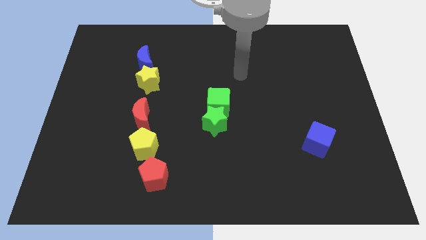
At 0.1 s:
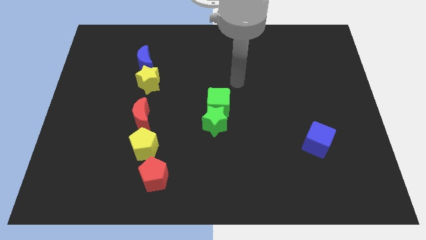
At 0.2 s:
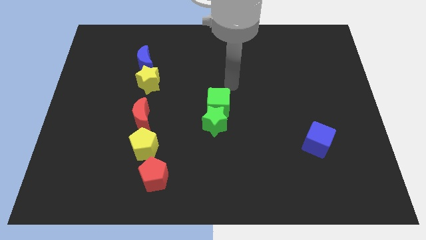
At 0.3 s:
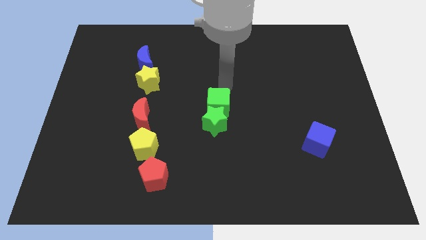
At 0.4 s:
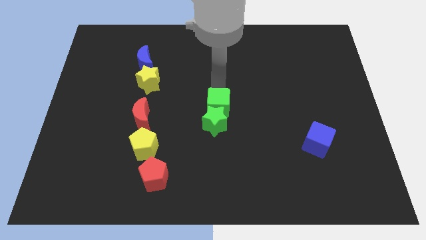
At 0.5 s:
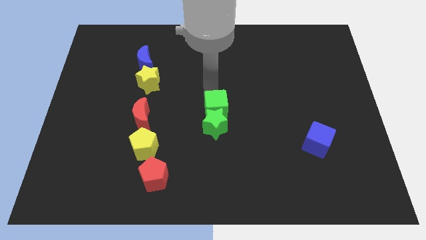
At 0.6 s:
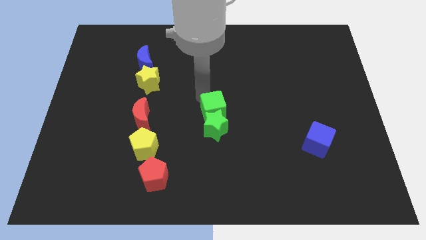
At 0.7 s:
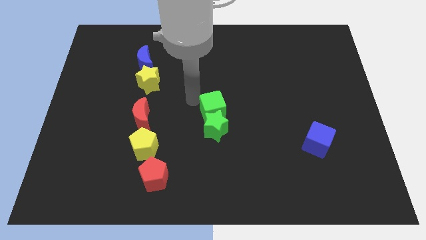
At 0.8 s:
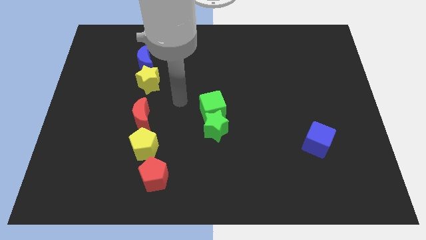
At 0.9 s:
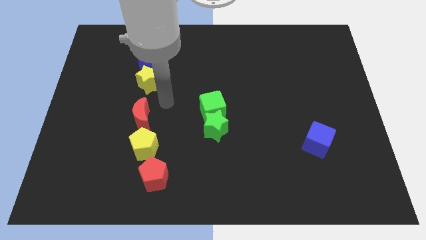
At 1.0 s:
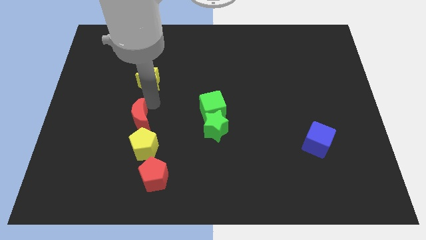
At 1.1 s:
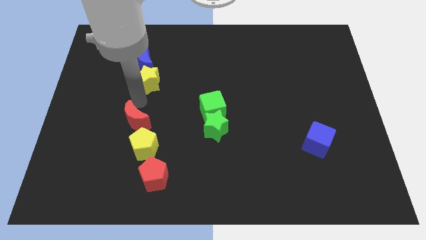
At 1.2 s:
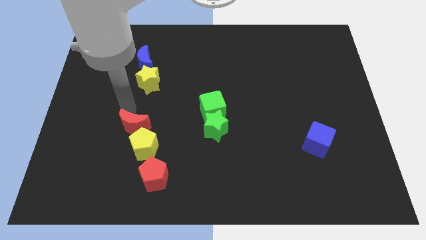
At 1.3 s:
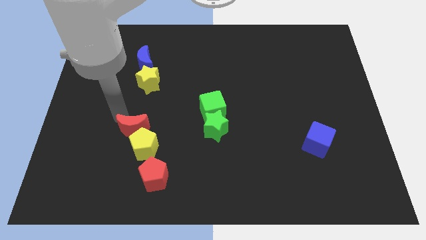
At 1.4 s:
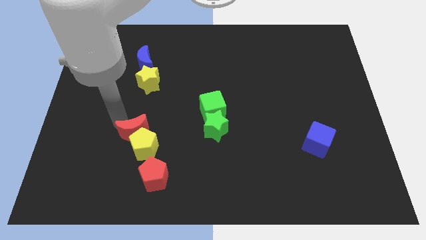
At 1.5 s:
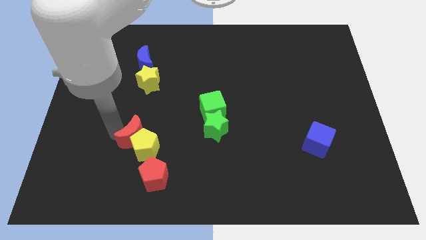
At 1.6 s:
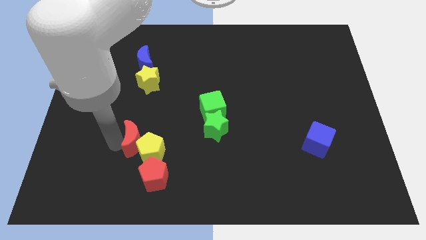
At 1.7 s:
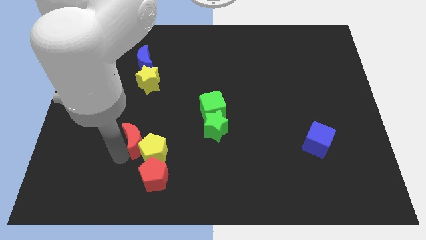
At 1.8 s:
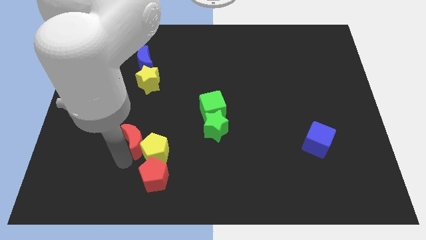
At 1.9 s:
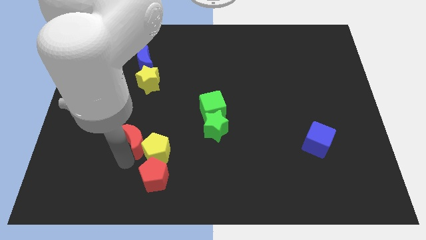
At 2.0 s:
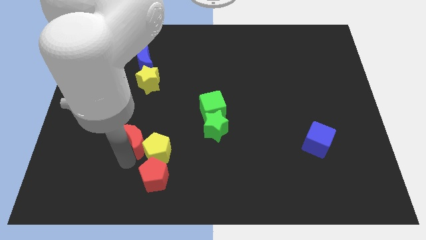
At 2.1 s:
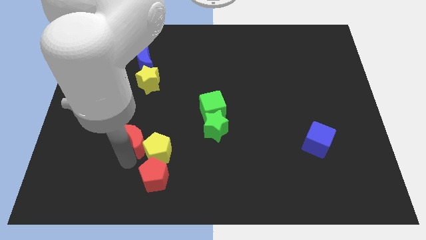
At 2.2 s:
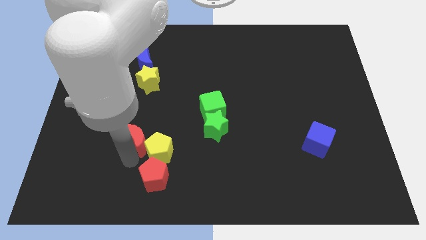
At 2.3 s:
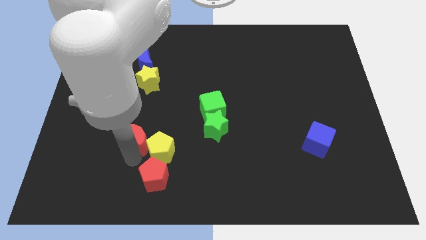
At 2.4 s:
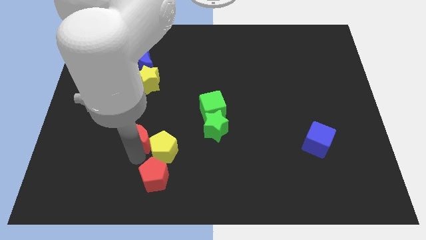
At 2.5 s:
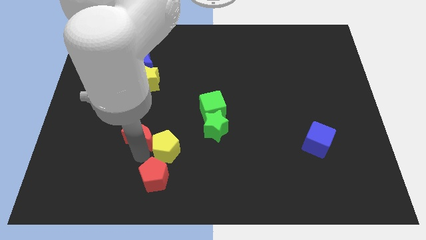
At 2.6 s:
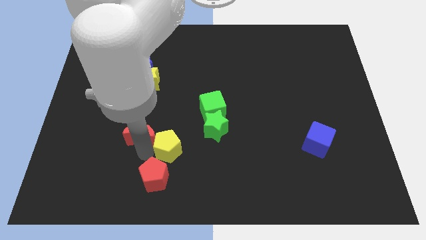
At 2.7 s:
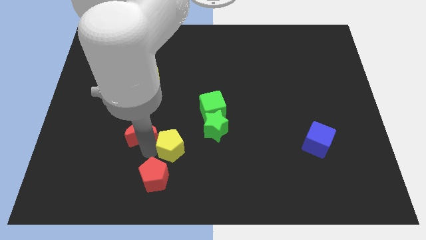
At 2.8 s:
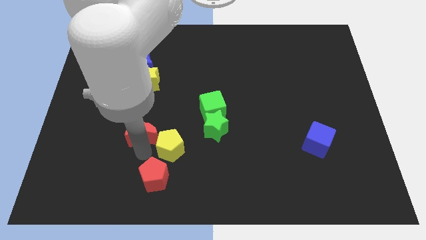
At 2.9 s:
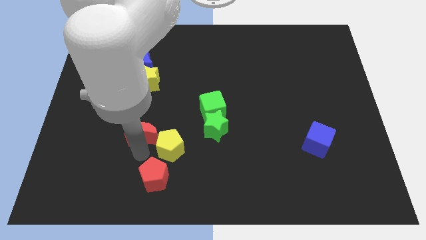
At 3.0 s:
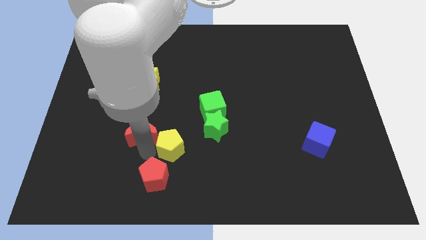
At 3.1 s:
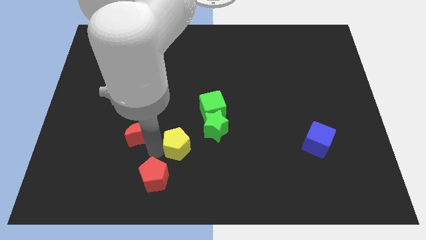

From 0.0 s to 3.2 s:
slightly move the yellow pentagon right

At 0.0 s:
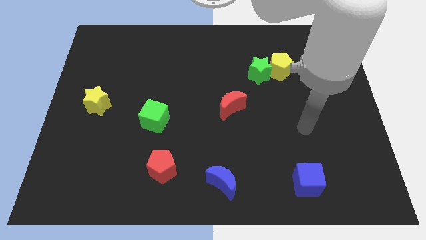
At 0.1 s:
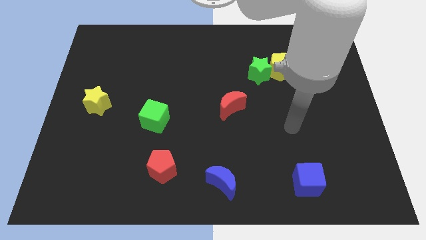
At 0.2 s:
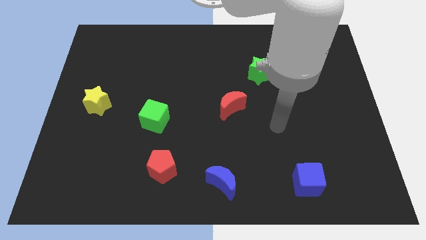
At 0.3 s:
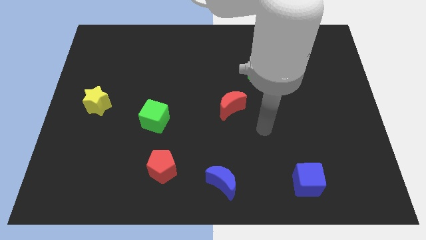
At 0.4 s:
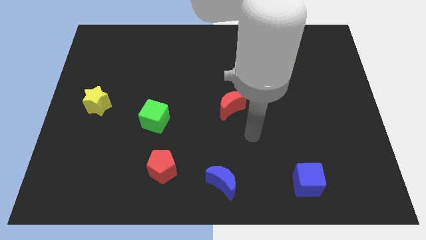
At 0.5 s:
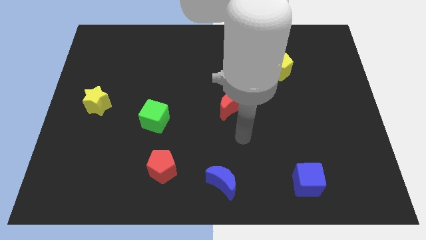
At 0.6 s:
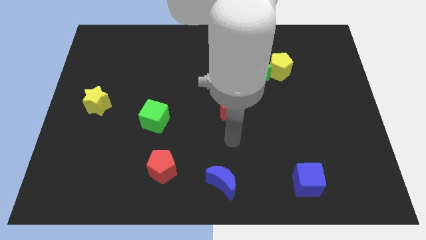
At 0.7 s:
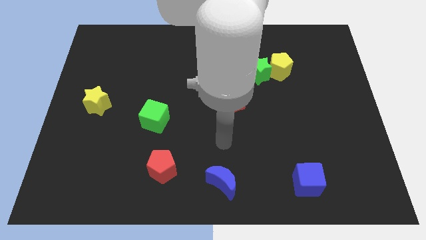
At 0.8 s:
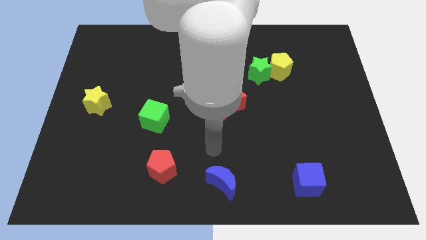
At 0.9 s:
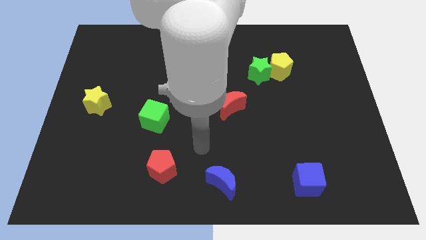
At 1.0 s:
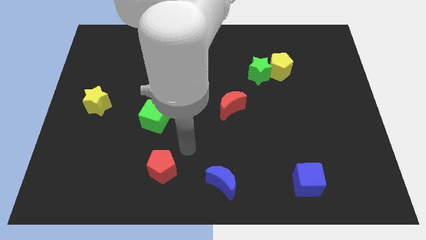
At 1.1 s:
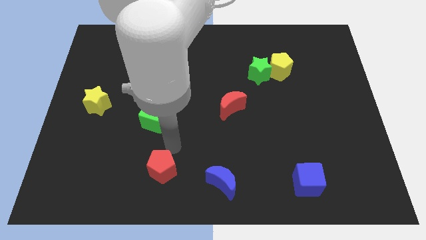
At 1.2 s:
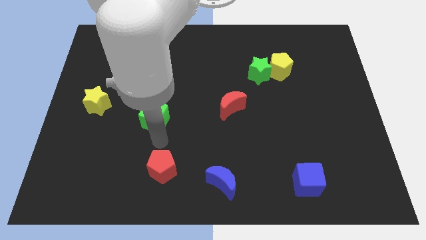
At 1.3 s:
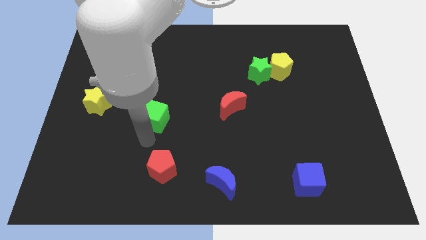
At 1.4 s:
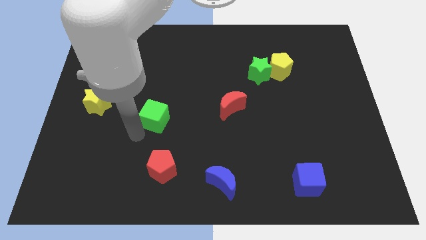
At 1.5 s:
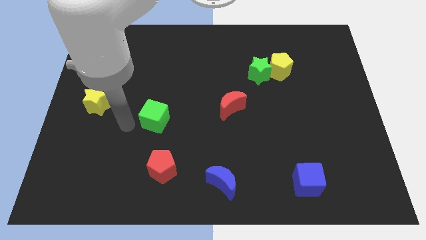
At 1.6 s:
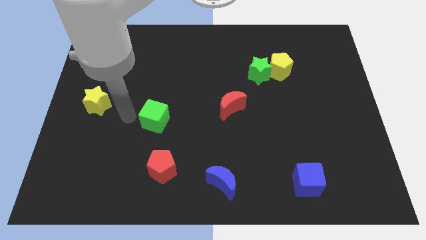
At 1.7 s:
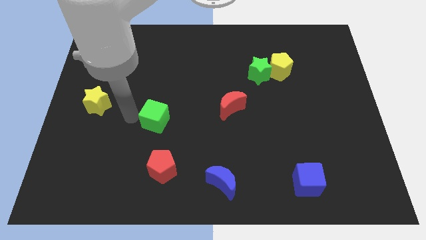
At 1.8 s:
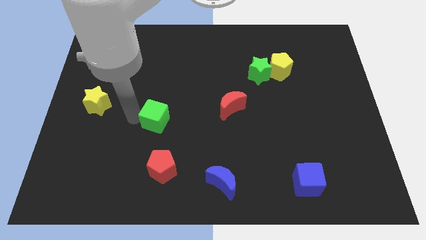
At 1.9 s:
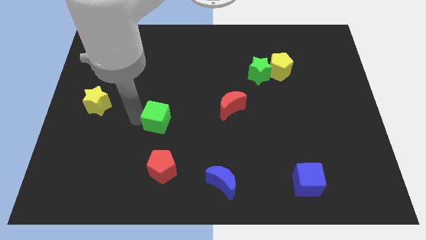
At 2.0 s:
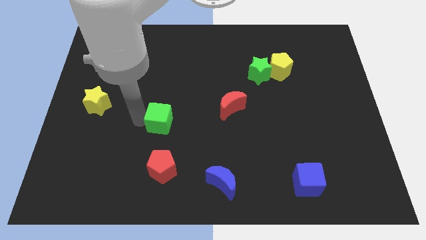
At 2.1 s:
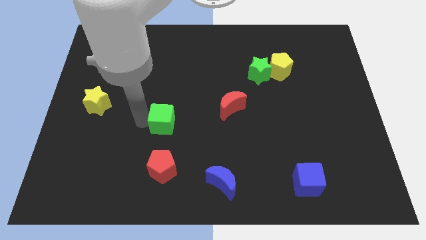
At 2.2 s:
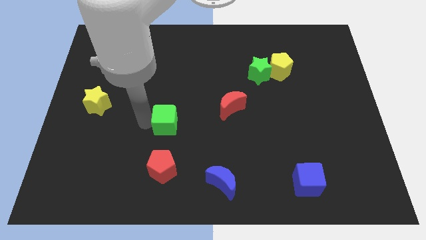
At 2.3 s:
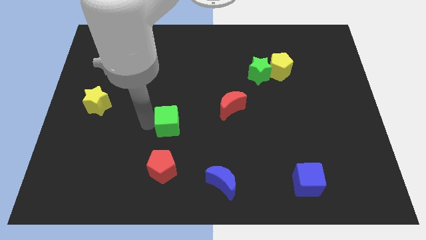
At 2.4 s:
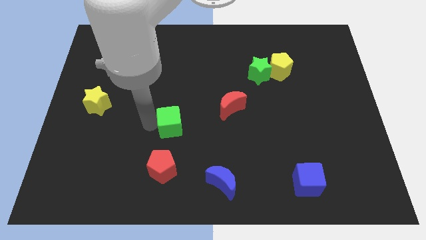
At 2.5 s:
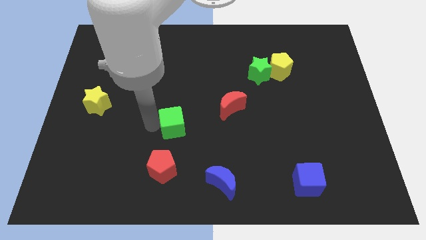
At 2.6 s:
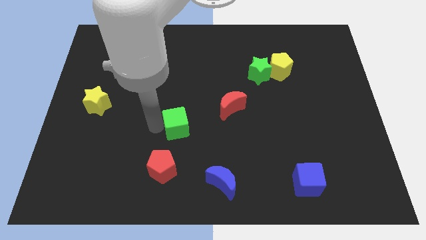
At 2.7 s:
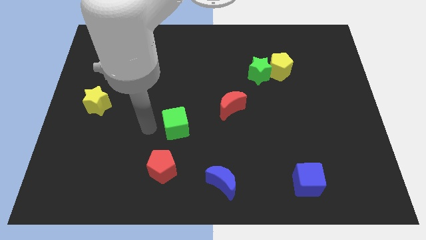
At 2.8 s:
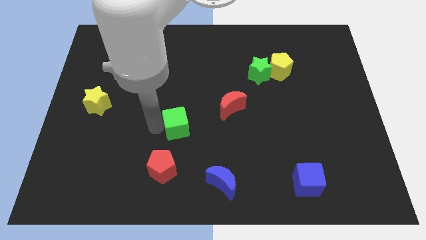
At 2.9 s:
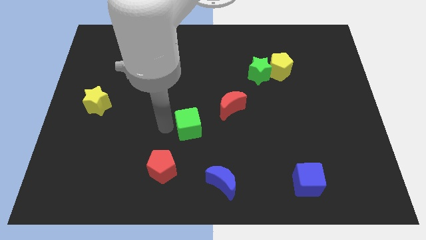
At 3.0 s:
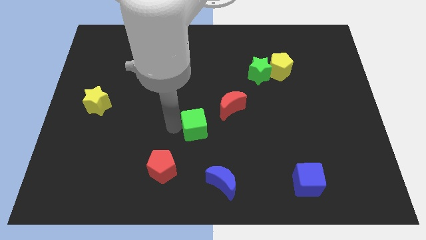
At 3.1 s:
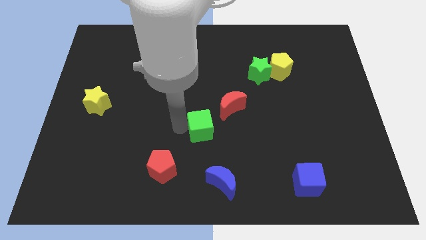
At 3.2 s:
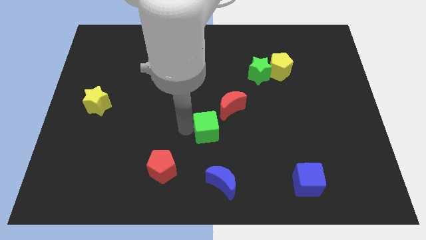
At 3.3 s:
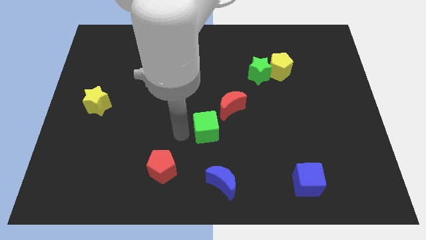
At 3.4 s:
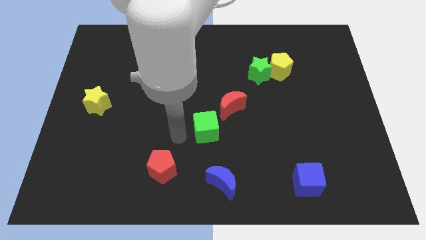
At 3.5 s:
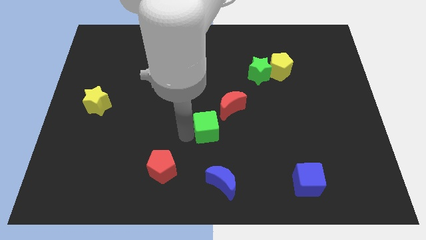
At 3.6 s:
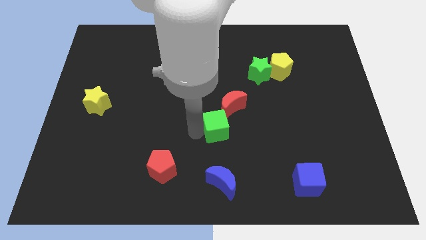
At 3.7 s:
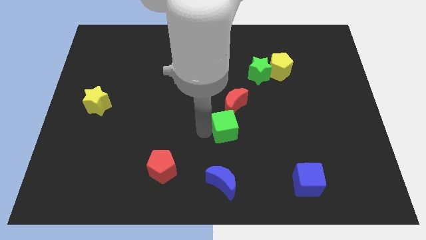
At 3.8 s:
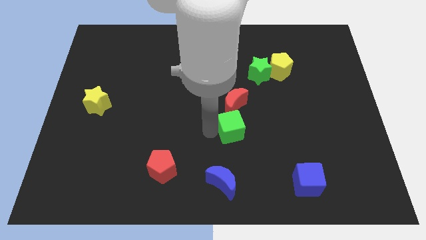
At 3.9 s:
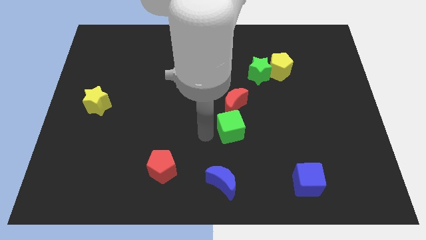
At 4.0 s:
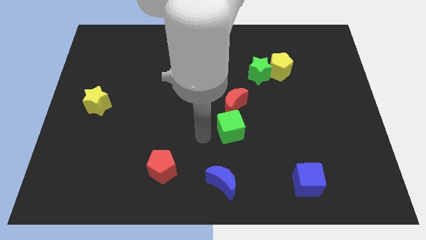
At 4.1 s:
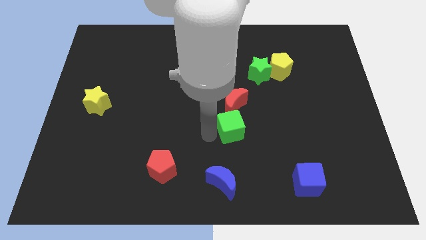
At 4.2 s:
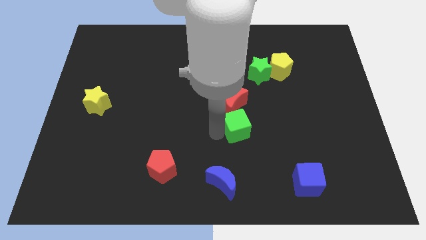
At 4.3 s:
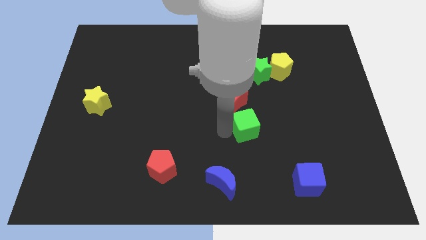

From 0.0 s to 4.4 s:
move the green cube to the right
